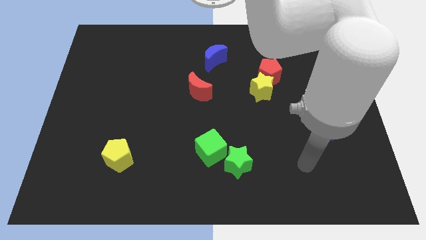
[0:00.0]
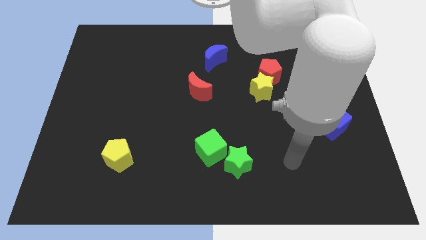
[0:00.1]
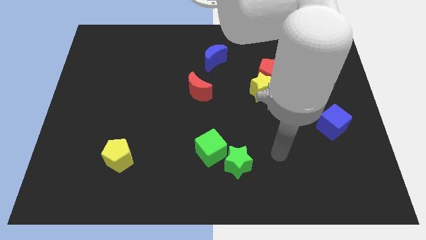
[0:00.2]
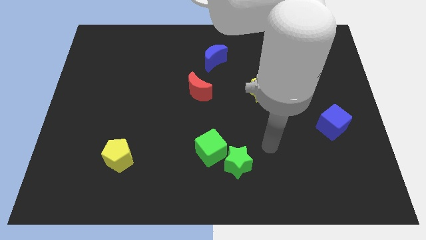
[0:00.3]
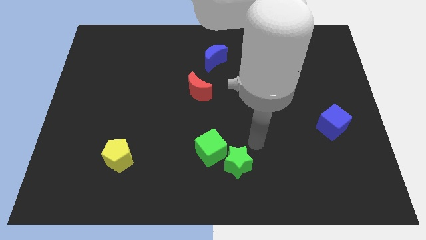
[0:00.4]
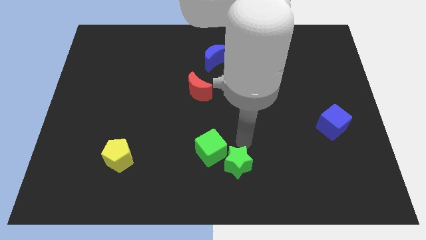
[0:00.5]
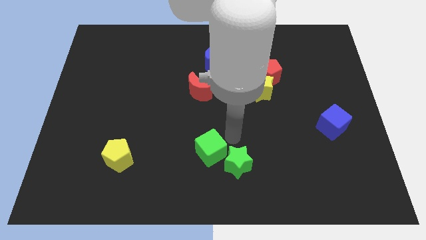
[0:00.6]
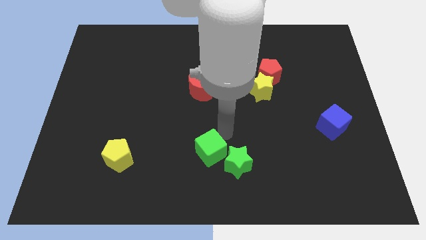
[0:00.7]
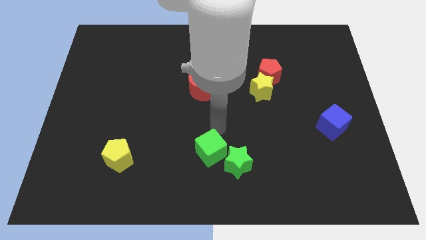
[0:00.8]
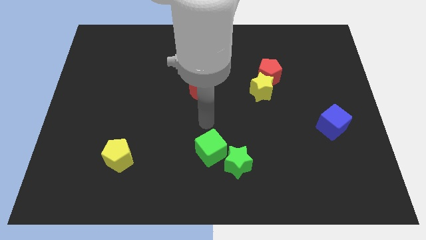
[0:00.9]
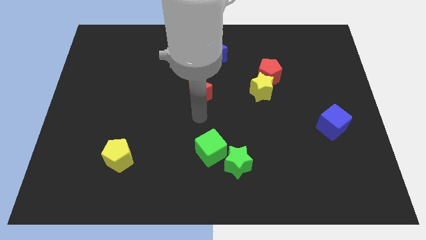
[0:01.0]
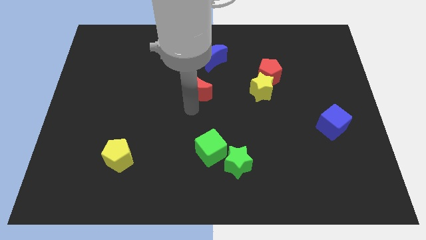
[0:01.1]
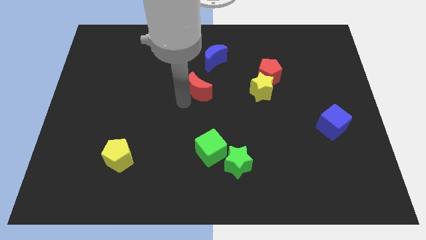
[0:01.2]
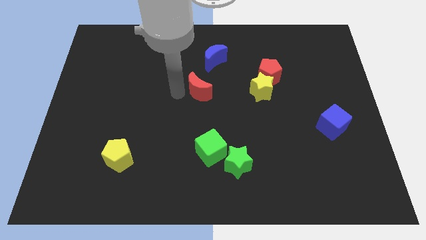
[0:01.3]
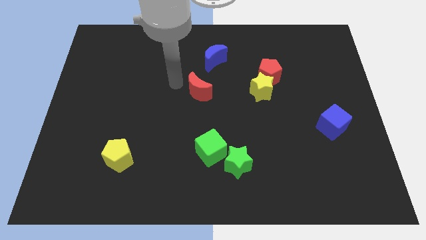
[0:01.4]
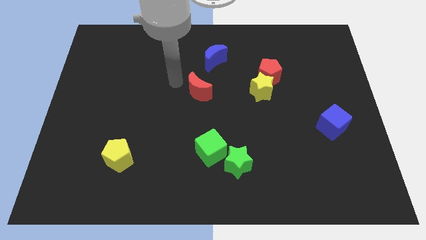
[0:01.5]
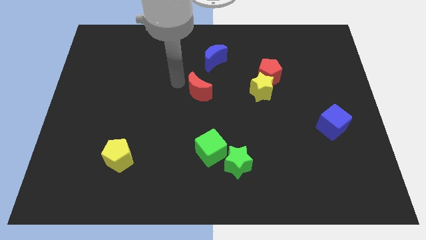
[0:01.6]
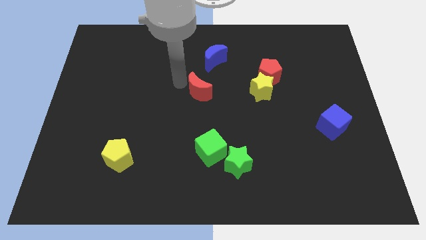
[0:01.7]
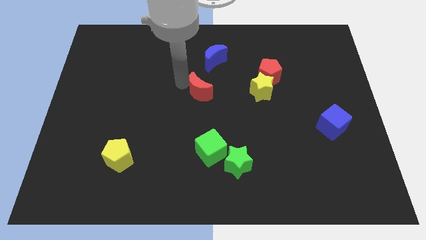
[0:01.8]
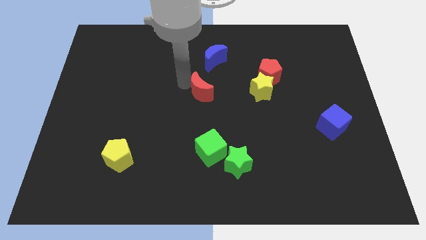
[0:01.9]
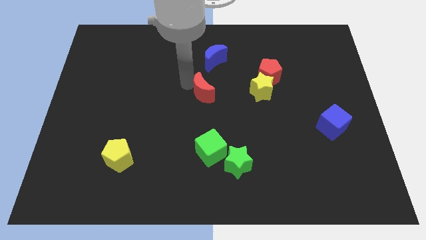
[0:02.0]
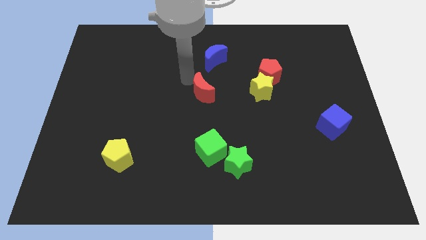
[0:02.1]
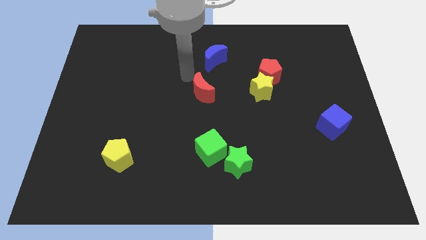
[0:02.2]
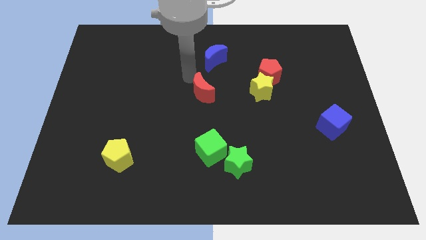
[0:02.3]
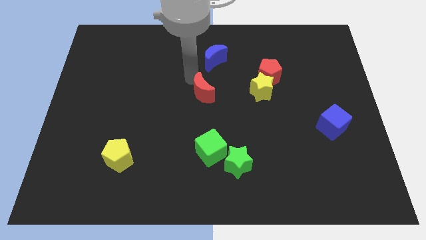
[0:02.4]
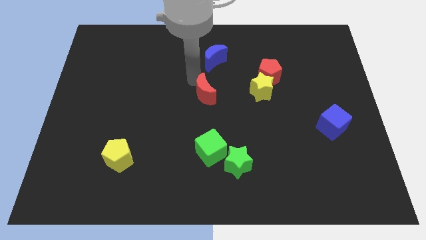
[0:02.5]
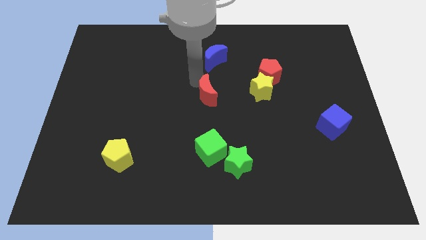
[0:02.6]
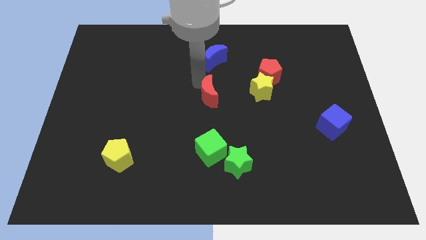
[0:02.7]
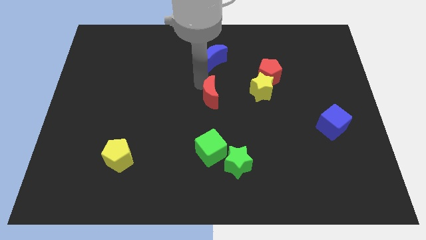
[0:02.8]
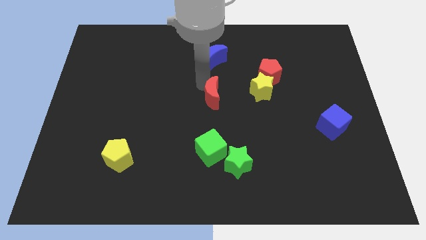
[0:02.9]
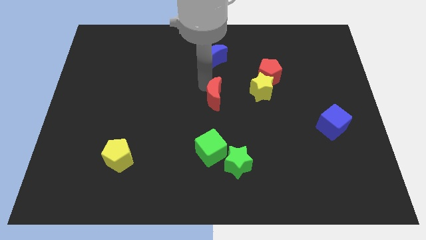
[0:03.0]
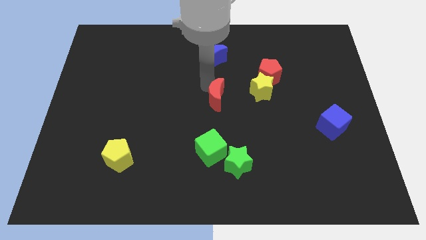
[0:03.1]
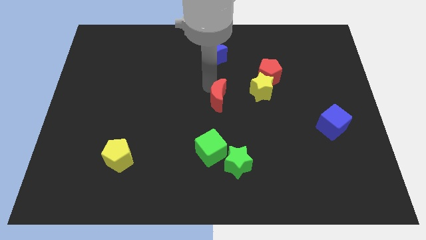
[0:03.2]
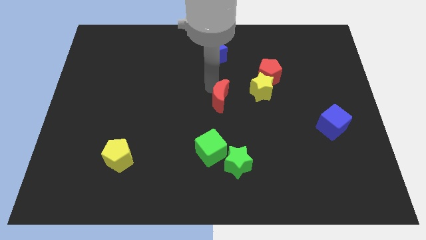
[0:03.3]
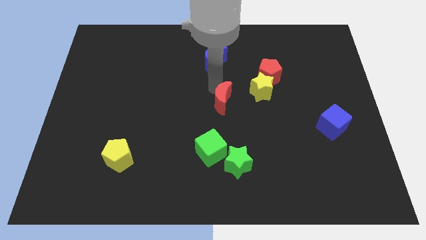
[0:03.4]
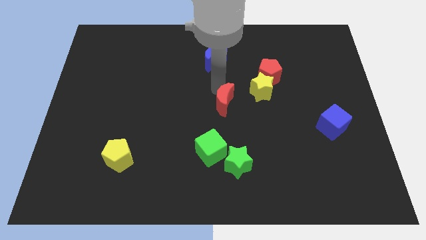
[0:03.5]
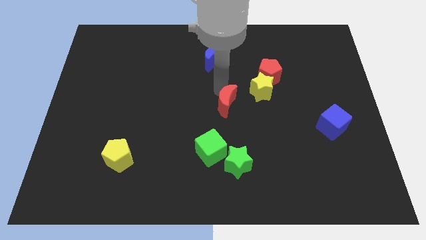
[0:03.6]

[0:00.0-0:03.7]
slide the red moon down and to the right a little

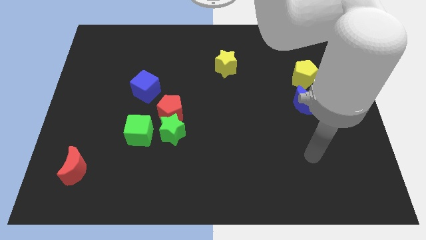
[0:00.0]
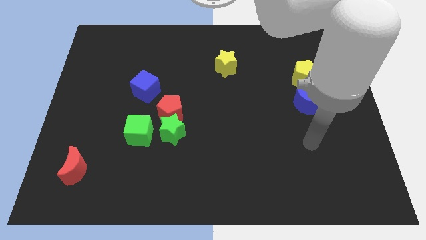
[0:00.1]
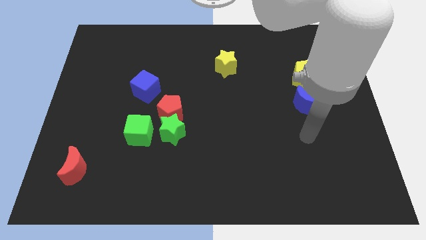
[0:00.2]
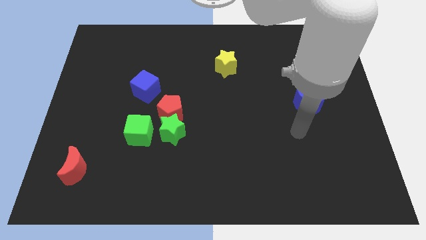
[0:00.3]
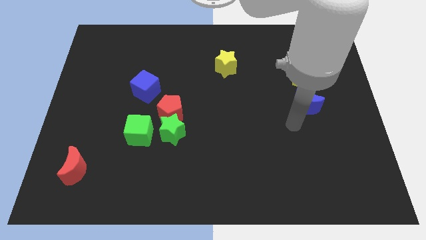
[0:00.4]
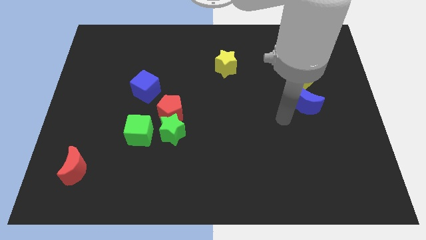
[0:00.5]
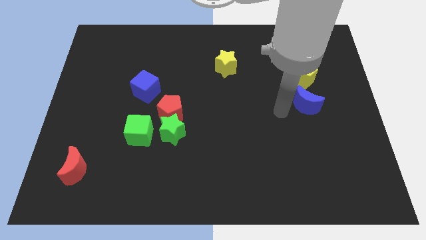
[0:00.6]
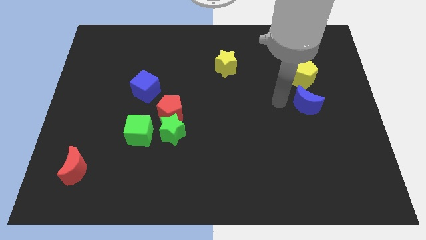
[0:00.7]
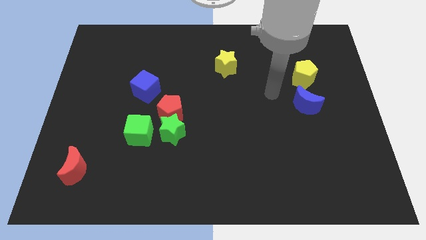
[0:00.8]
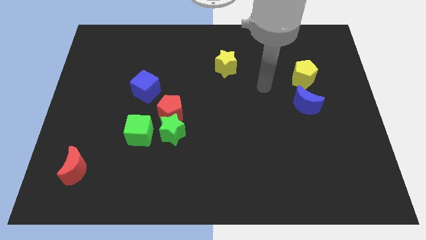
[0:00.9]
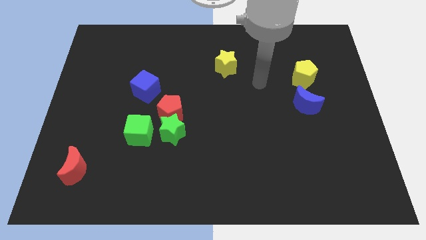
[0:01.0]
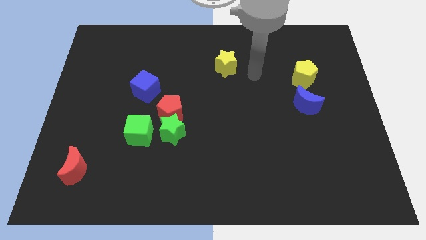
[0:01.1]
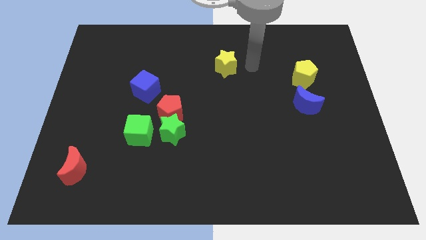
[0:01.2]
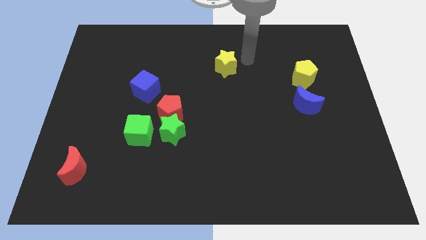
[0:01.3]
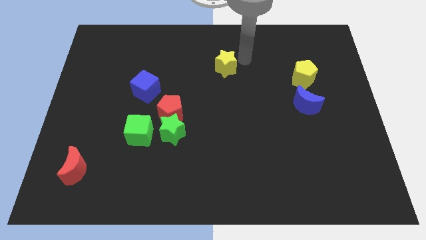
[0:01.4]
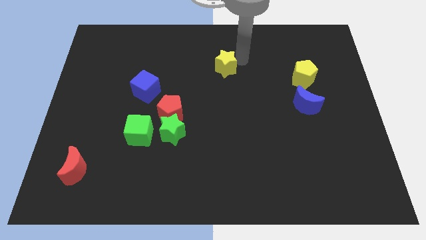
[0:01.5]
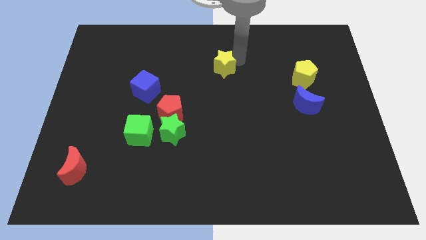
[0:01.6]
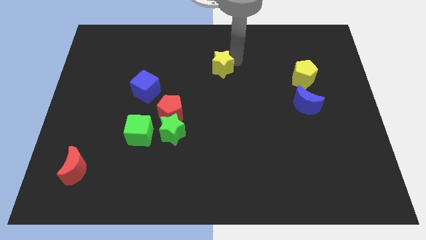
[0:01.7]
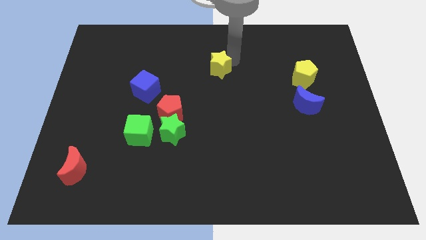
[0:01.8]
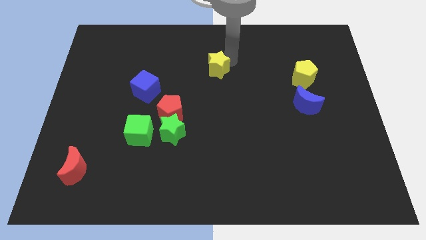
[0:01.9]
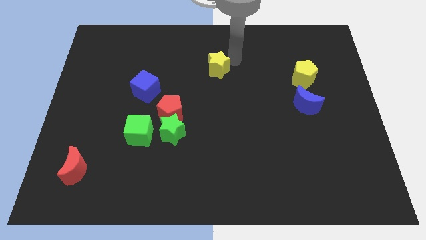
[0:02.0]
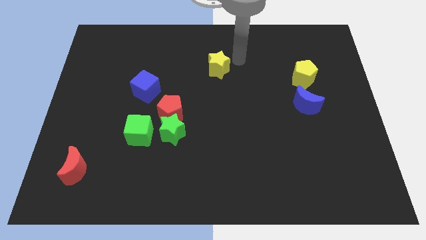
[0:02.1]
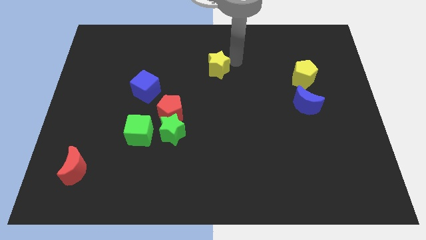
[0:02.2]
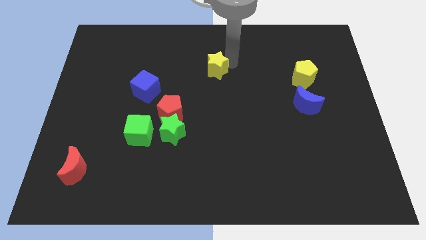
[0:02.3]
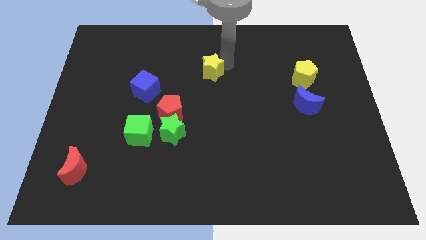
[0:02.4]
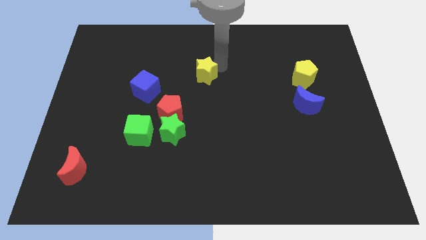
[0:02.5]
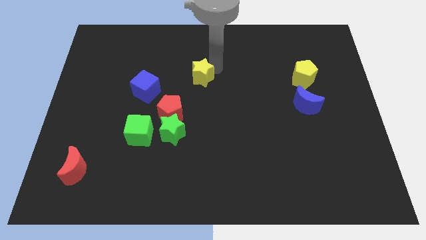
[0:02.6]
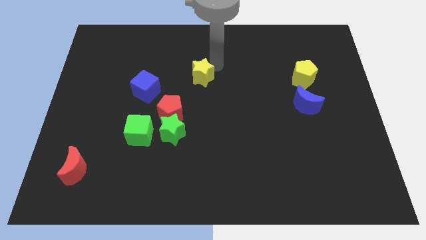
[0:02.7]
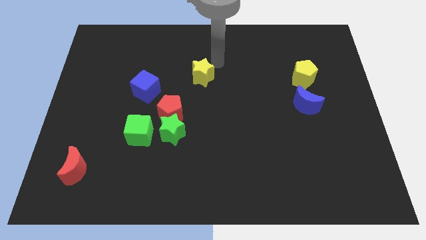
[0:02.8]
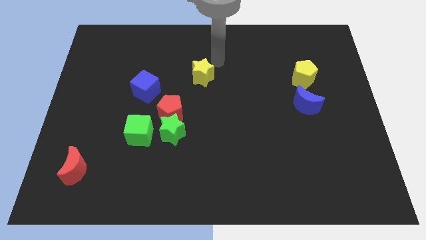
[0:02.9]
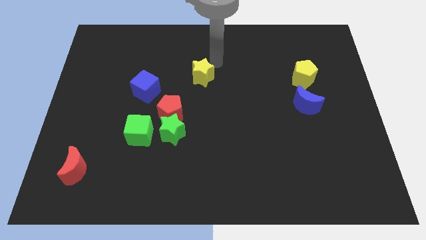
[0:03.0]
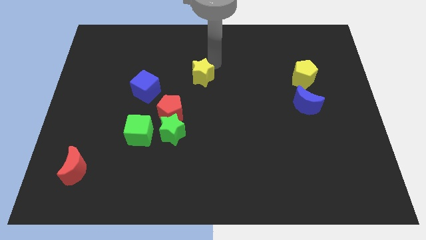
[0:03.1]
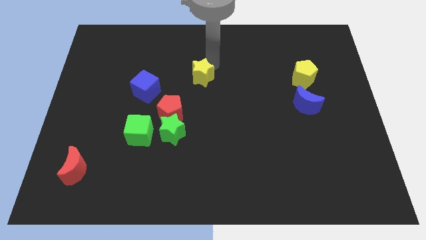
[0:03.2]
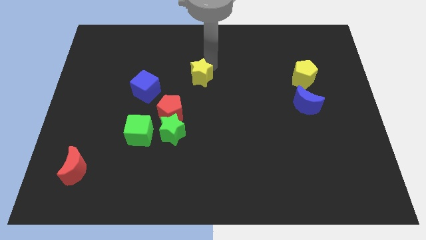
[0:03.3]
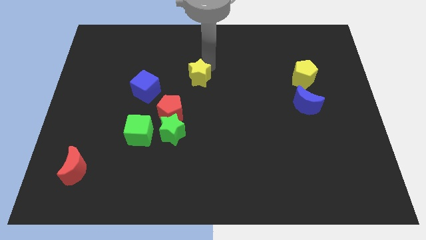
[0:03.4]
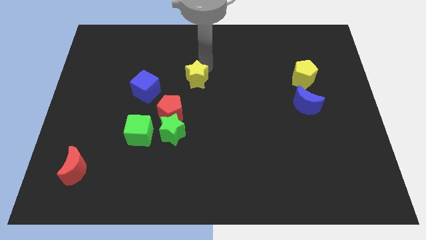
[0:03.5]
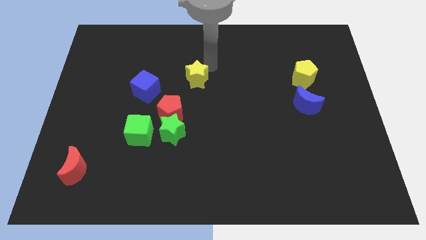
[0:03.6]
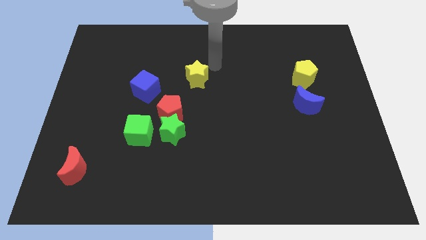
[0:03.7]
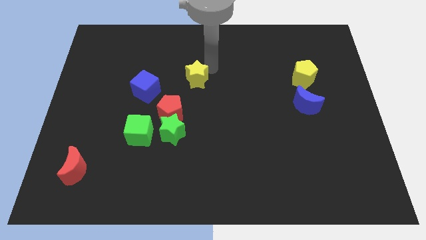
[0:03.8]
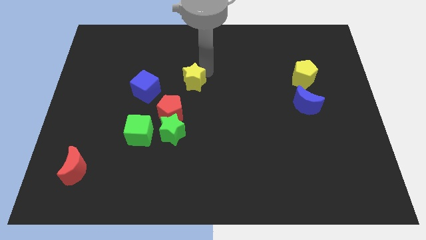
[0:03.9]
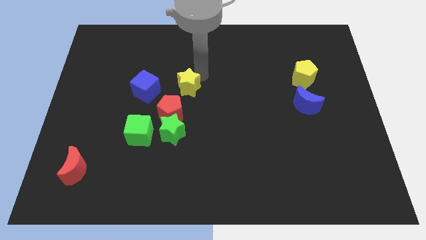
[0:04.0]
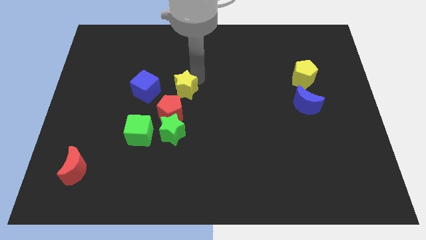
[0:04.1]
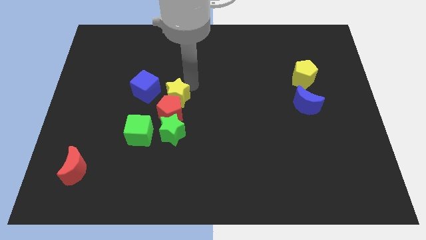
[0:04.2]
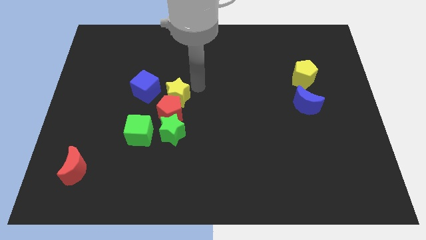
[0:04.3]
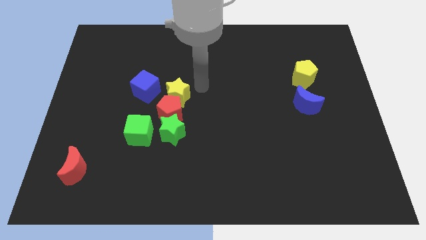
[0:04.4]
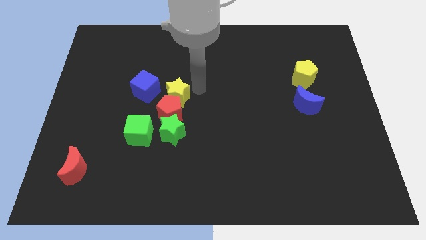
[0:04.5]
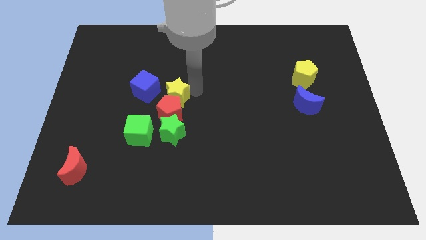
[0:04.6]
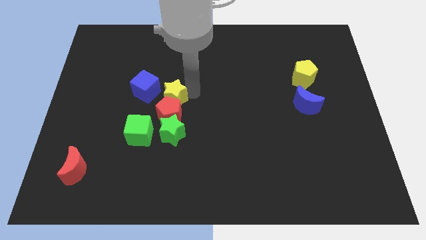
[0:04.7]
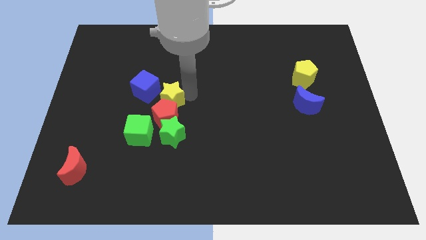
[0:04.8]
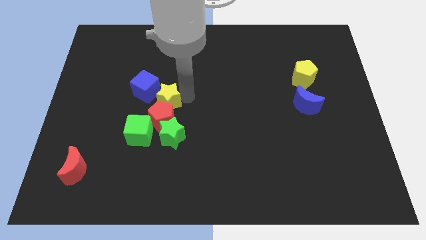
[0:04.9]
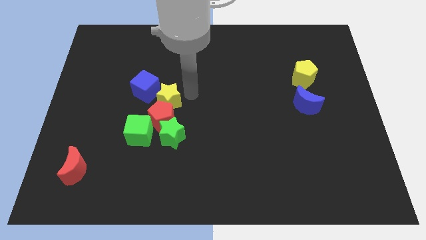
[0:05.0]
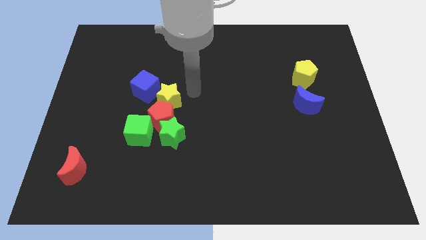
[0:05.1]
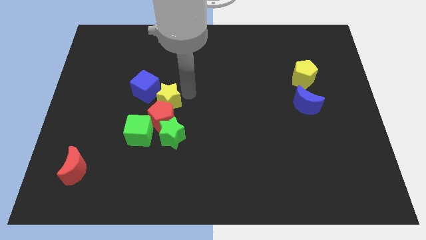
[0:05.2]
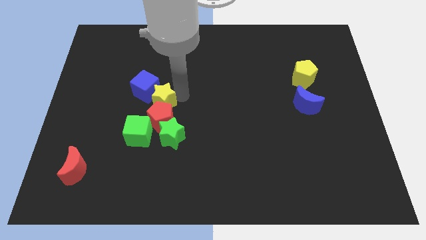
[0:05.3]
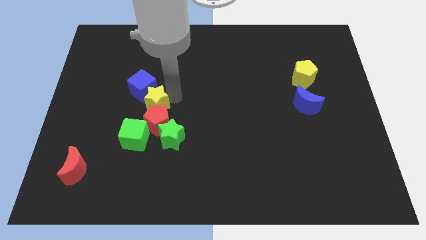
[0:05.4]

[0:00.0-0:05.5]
move the yellow star downwards and to the left
